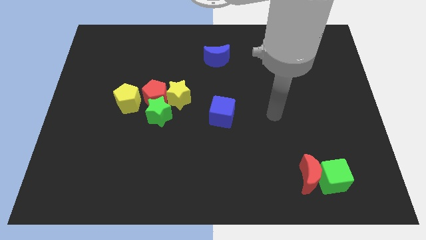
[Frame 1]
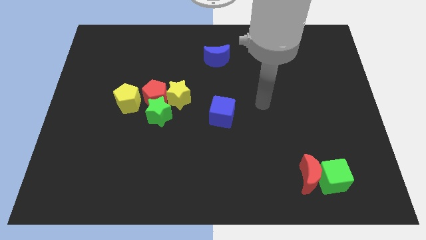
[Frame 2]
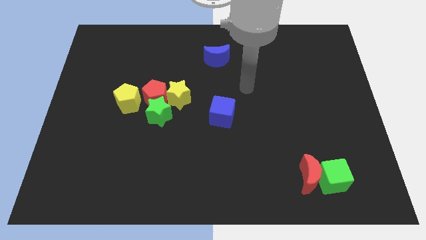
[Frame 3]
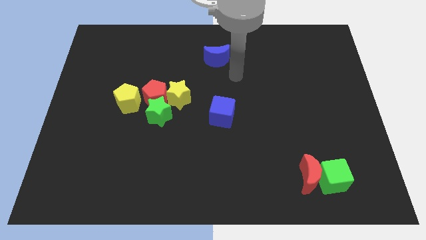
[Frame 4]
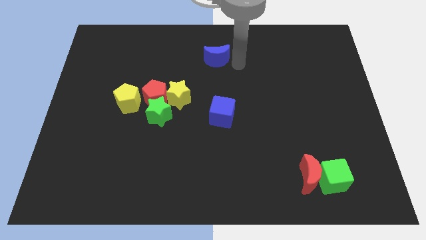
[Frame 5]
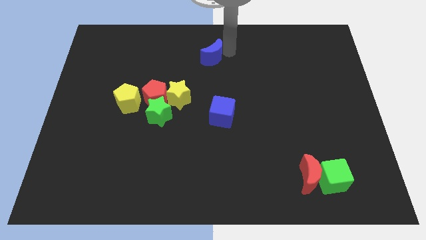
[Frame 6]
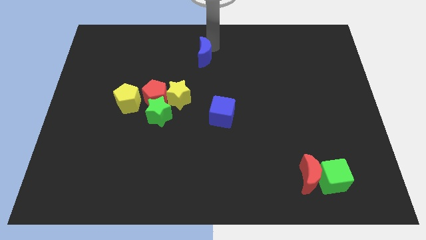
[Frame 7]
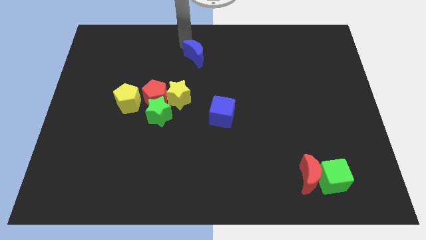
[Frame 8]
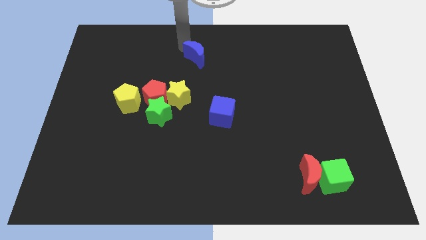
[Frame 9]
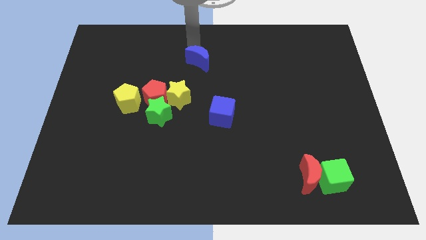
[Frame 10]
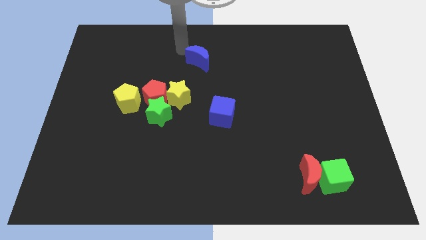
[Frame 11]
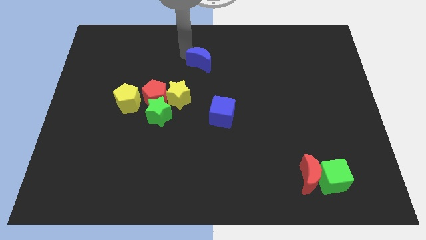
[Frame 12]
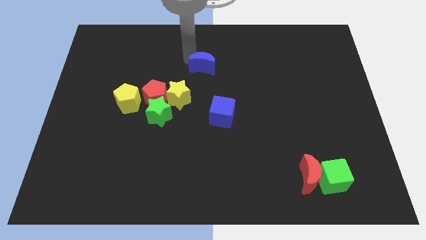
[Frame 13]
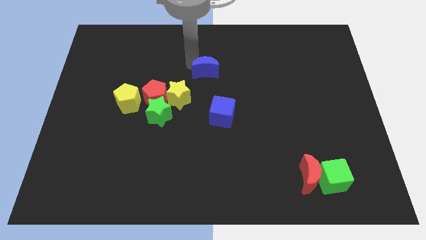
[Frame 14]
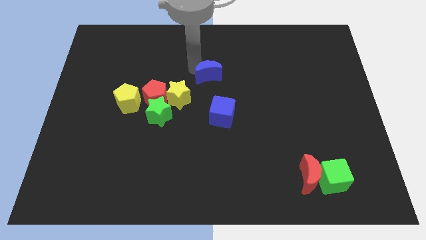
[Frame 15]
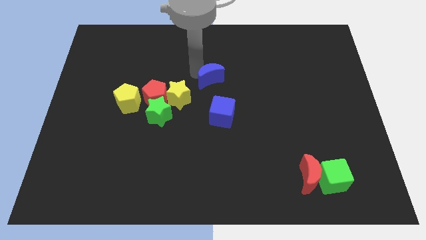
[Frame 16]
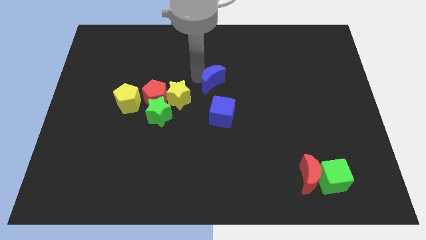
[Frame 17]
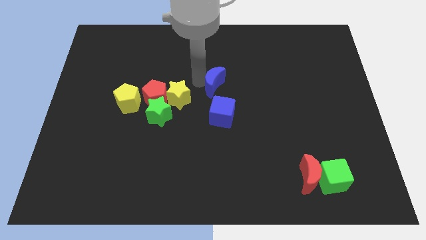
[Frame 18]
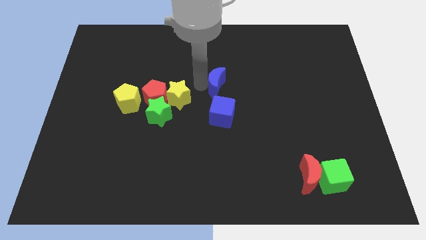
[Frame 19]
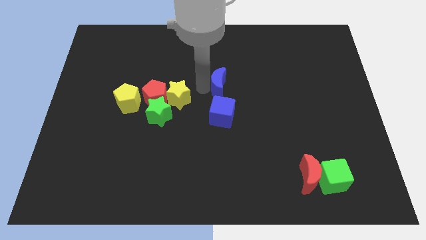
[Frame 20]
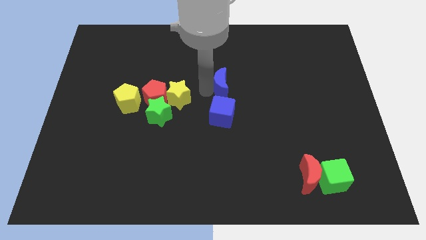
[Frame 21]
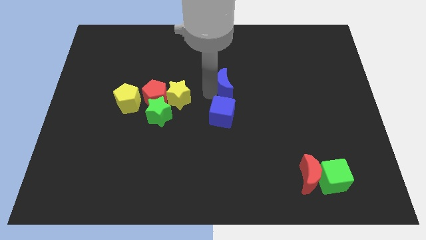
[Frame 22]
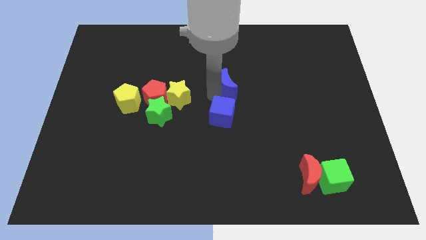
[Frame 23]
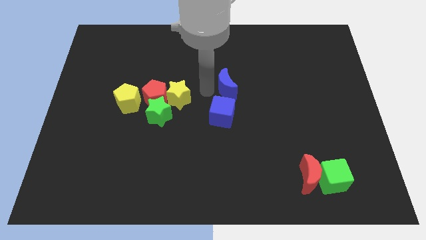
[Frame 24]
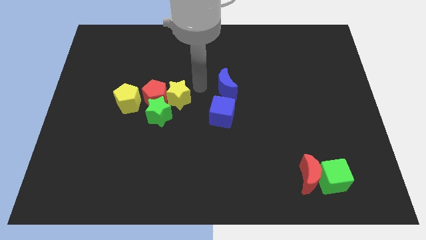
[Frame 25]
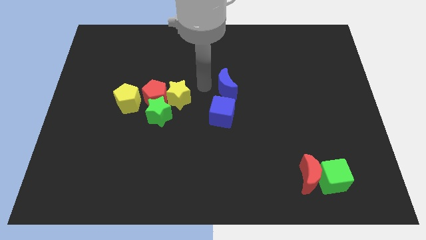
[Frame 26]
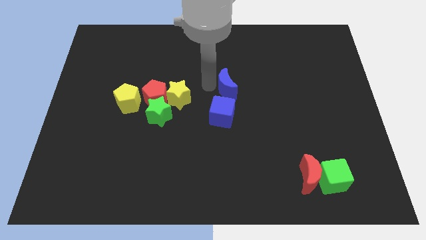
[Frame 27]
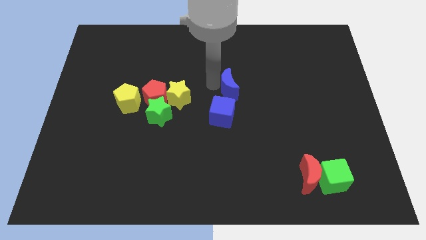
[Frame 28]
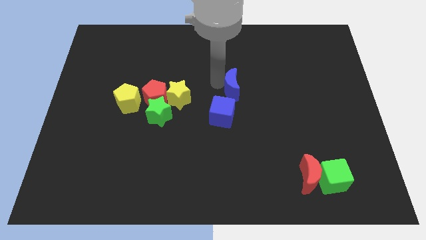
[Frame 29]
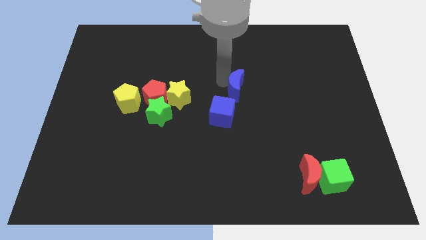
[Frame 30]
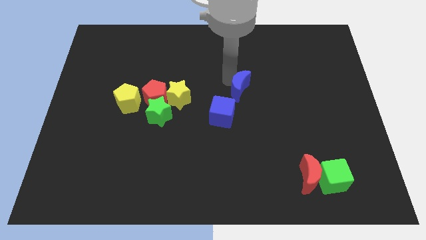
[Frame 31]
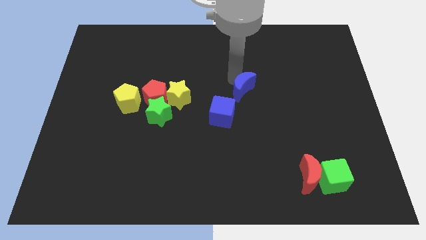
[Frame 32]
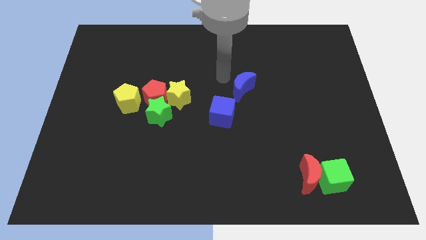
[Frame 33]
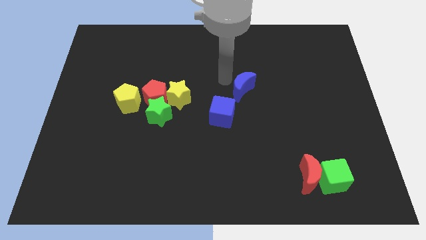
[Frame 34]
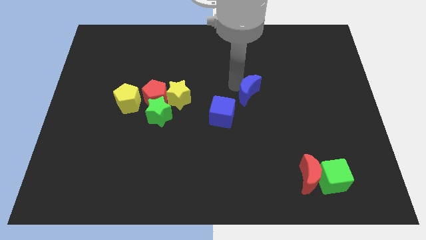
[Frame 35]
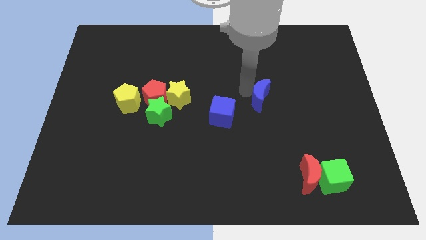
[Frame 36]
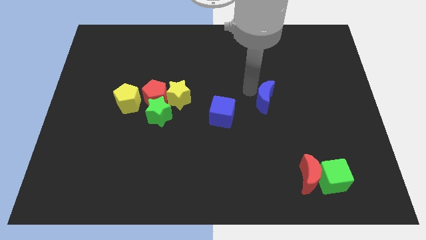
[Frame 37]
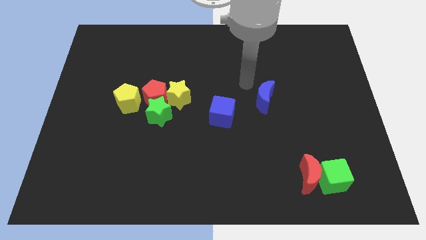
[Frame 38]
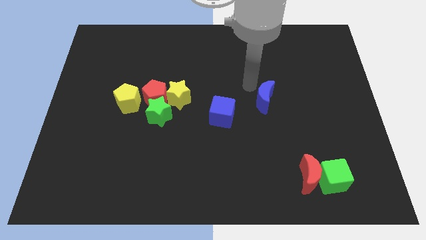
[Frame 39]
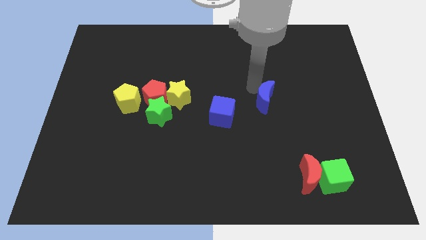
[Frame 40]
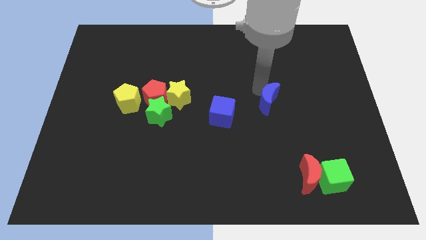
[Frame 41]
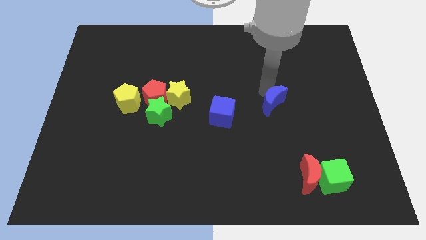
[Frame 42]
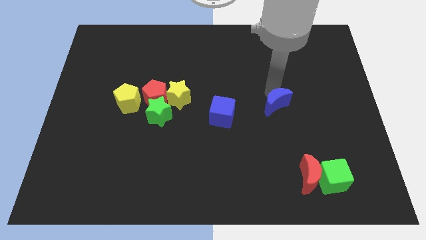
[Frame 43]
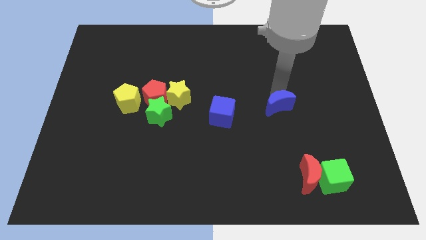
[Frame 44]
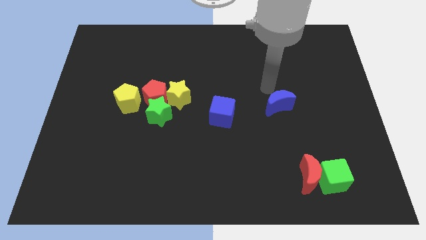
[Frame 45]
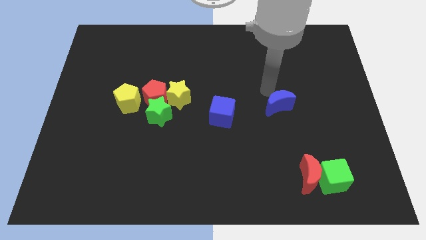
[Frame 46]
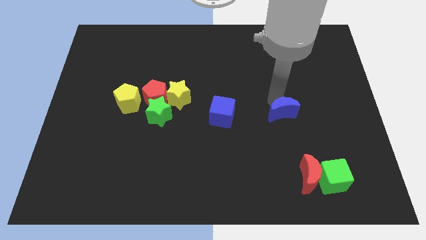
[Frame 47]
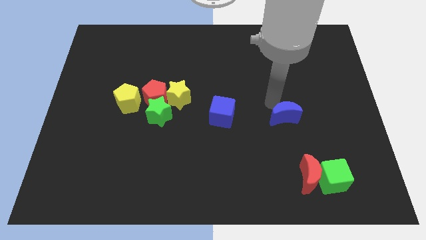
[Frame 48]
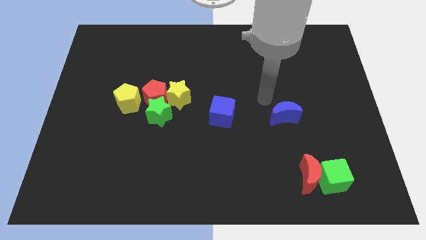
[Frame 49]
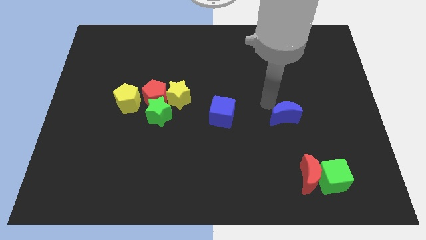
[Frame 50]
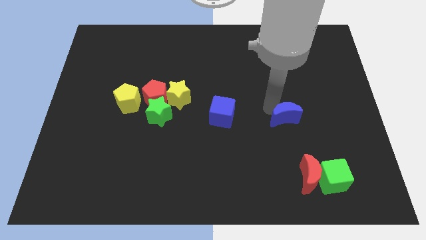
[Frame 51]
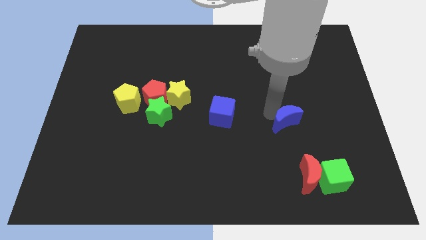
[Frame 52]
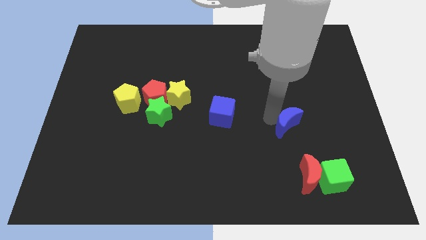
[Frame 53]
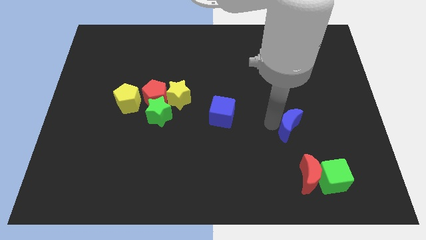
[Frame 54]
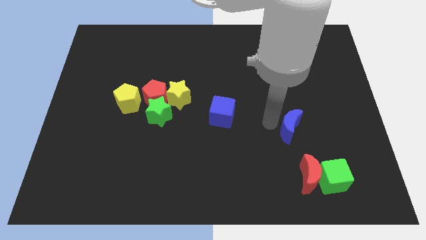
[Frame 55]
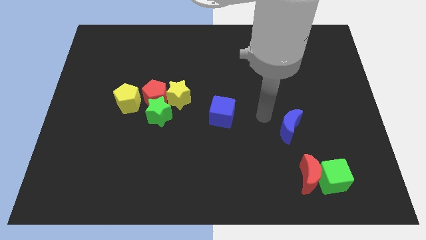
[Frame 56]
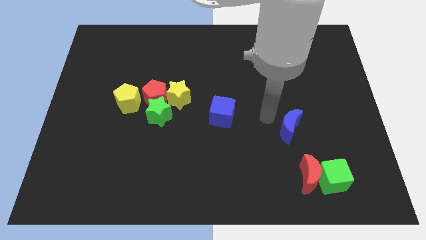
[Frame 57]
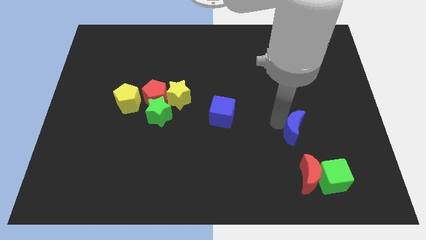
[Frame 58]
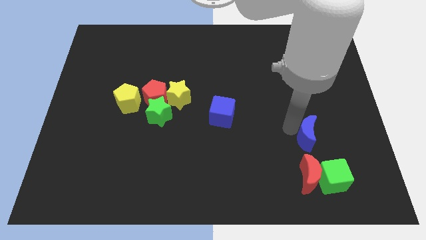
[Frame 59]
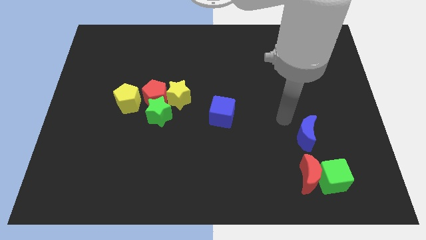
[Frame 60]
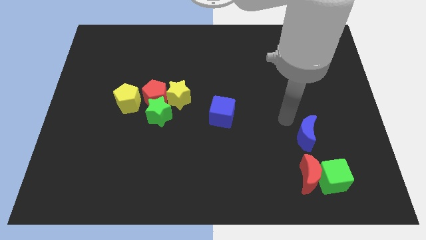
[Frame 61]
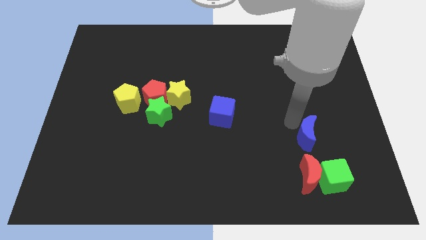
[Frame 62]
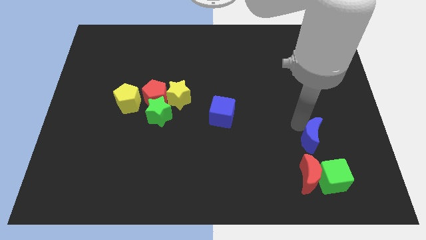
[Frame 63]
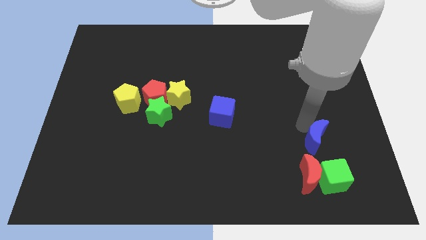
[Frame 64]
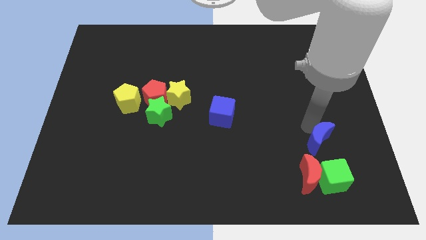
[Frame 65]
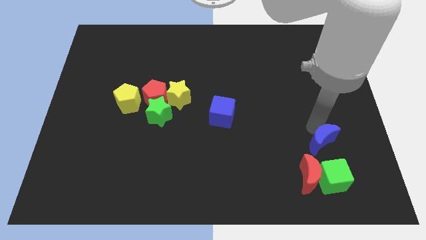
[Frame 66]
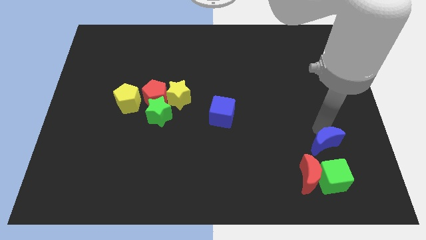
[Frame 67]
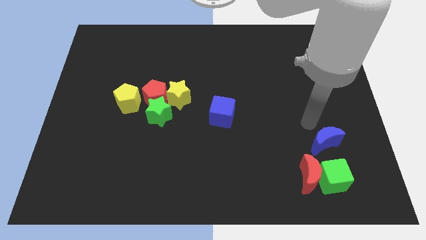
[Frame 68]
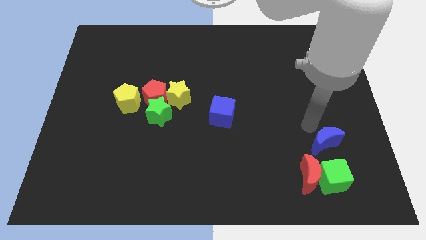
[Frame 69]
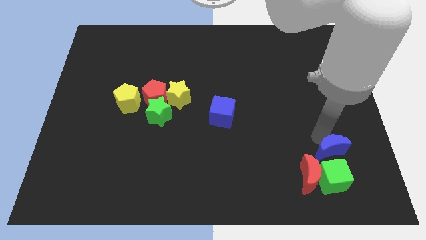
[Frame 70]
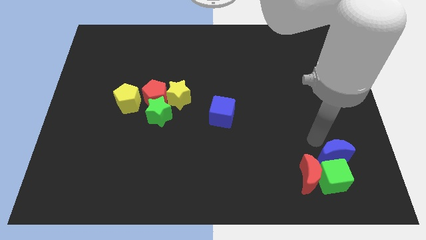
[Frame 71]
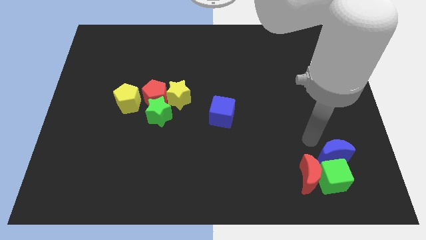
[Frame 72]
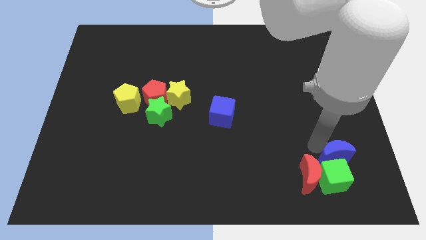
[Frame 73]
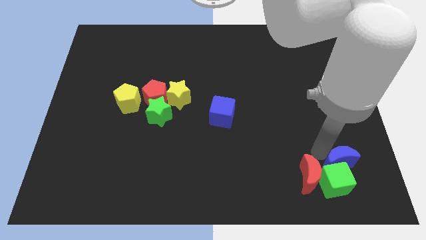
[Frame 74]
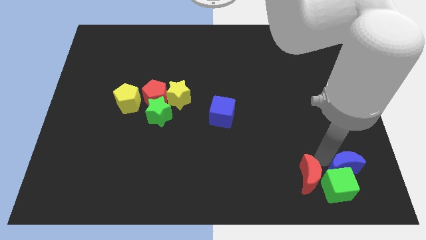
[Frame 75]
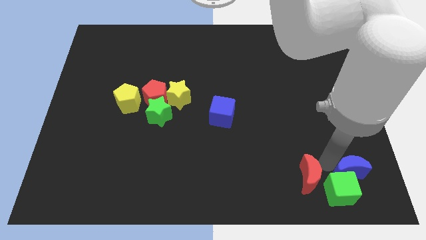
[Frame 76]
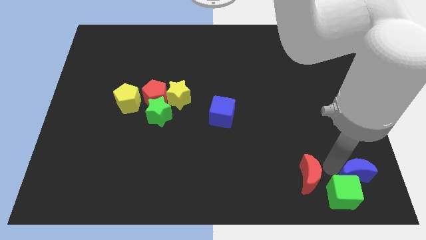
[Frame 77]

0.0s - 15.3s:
put the blue moon to the bottom right
